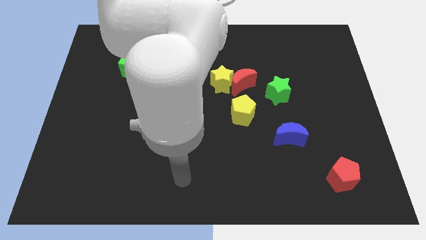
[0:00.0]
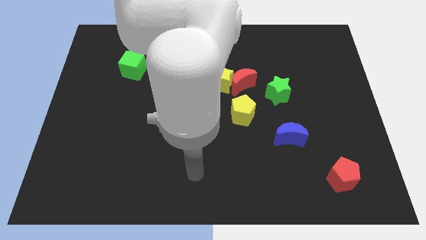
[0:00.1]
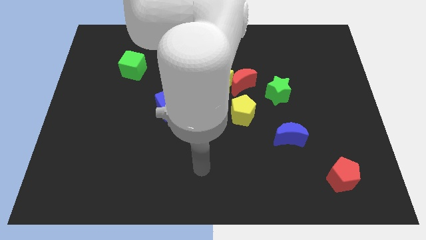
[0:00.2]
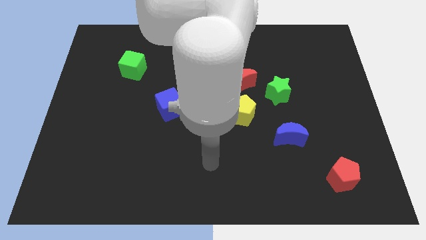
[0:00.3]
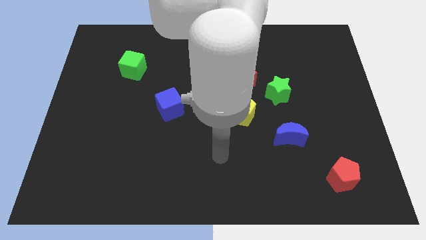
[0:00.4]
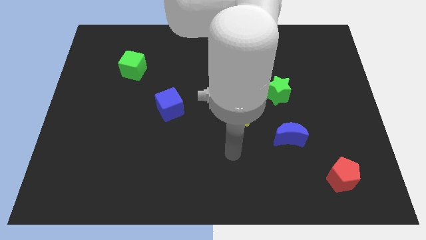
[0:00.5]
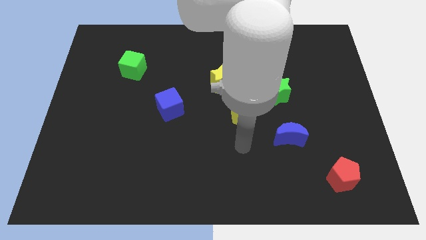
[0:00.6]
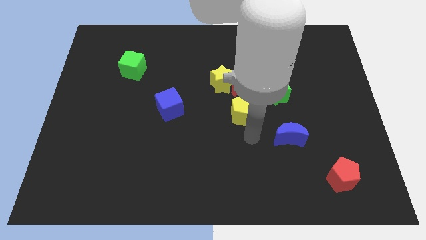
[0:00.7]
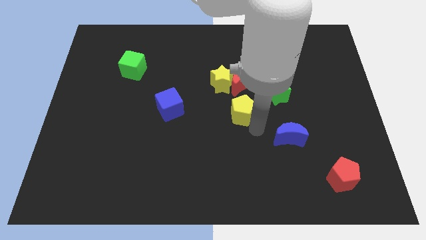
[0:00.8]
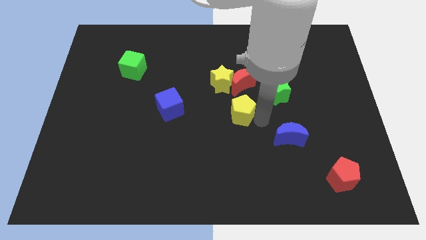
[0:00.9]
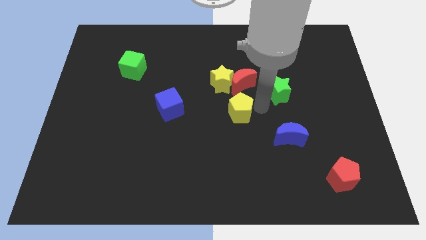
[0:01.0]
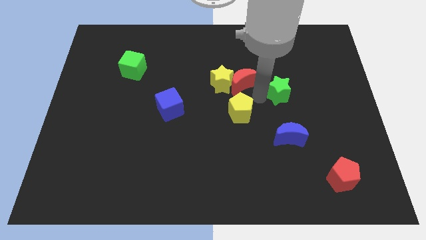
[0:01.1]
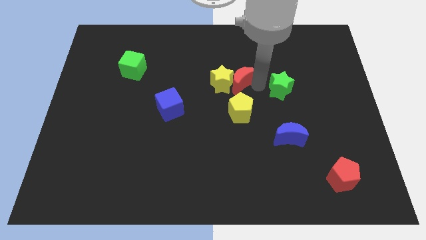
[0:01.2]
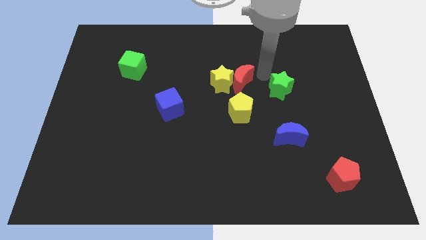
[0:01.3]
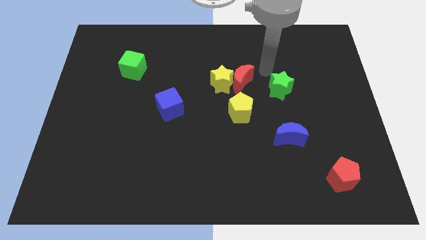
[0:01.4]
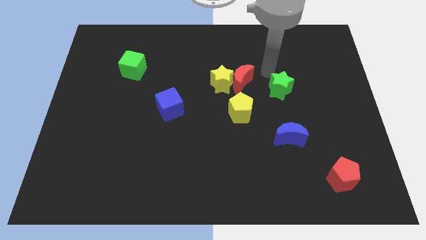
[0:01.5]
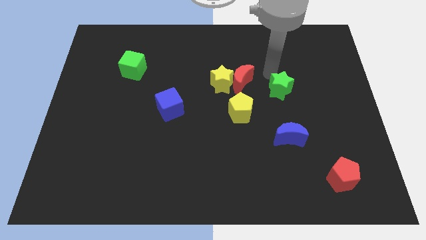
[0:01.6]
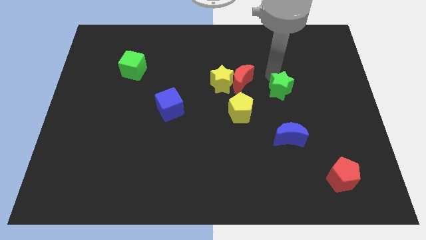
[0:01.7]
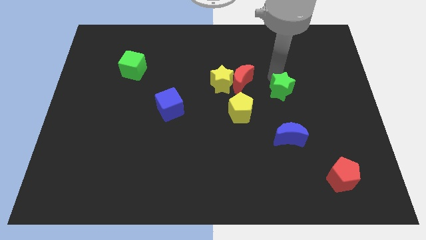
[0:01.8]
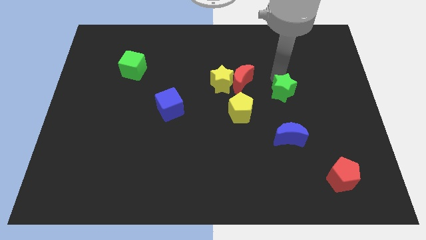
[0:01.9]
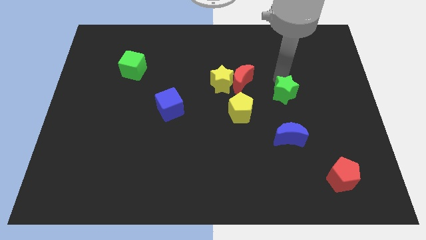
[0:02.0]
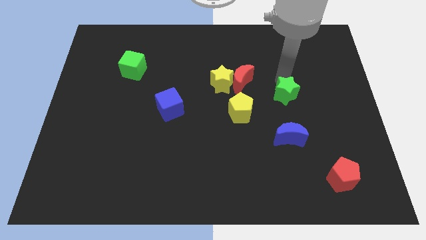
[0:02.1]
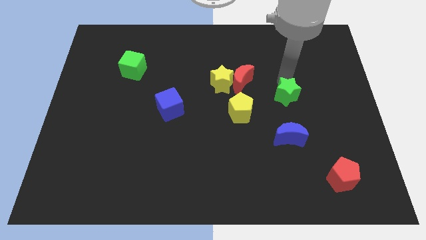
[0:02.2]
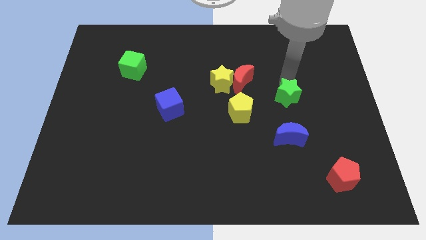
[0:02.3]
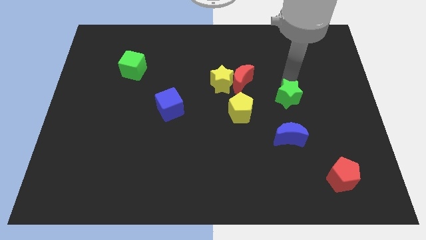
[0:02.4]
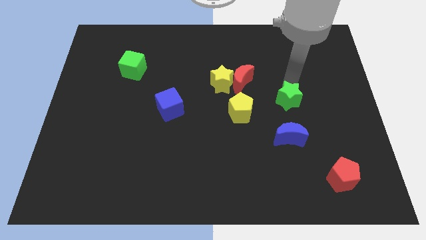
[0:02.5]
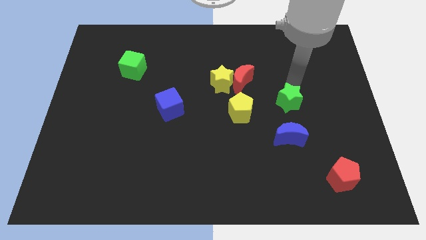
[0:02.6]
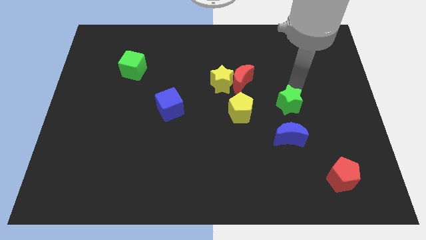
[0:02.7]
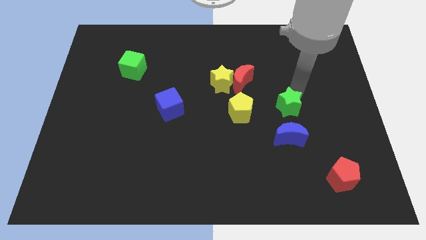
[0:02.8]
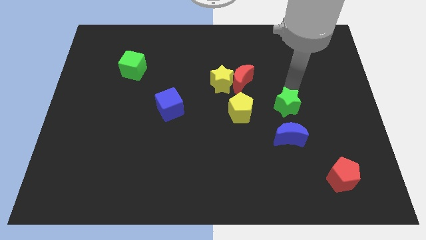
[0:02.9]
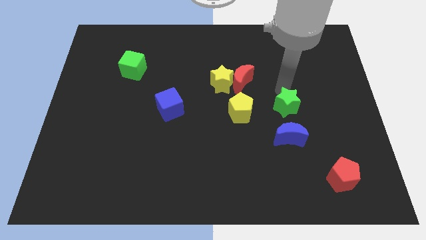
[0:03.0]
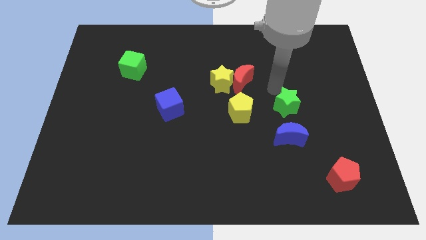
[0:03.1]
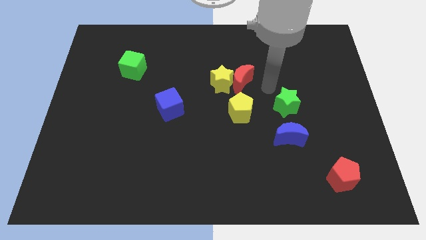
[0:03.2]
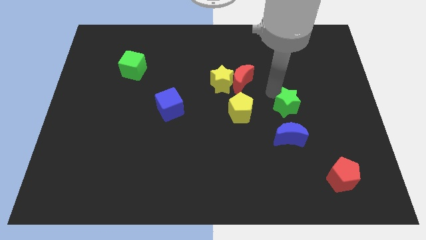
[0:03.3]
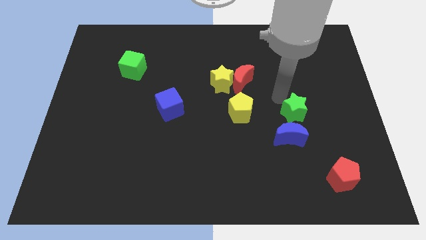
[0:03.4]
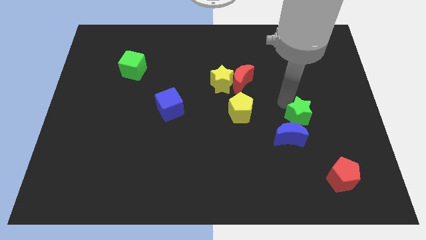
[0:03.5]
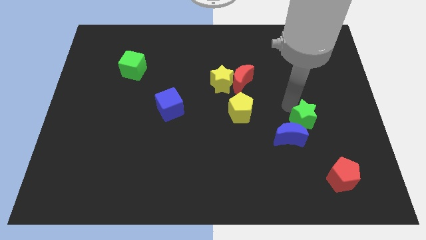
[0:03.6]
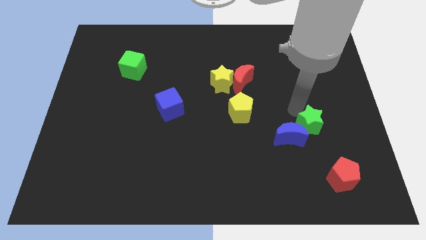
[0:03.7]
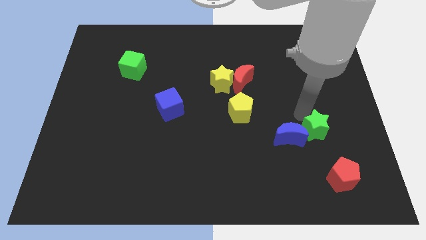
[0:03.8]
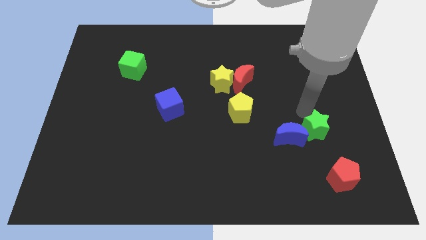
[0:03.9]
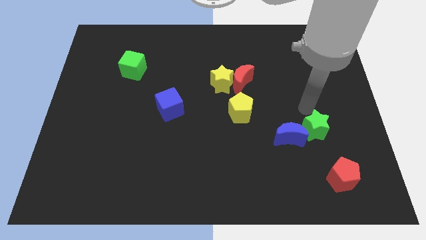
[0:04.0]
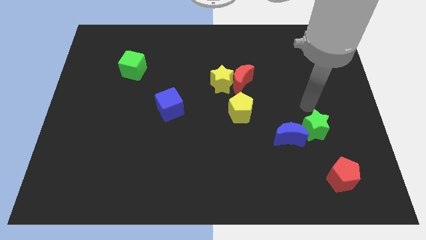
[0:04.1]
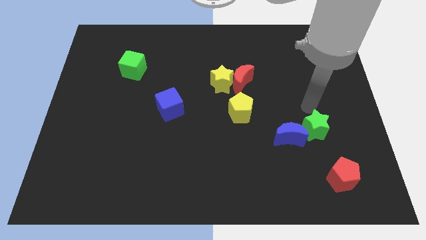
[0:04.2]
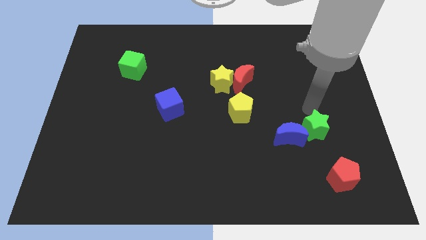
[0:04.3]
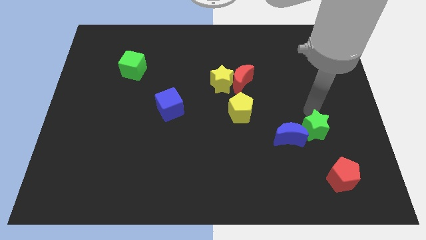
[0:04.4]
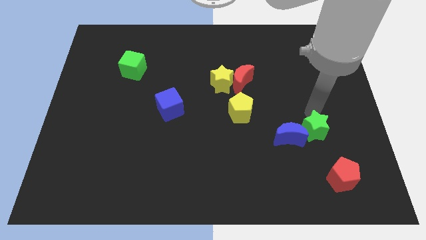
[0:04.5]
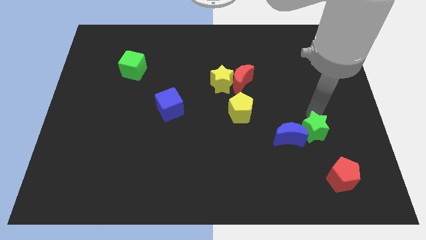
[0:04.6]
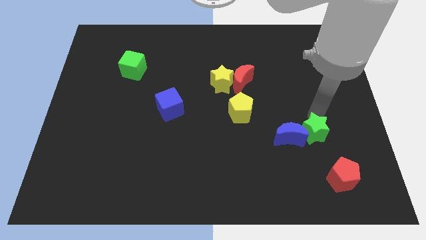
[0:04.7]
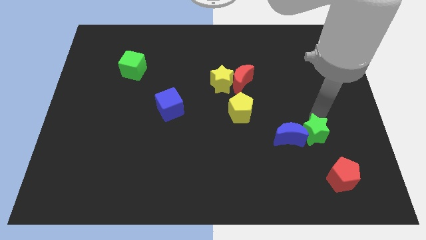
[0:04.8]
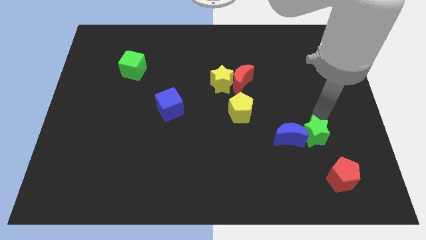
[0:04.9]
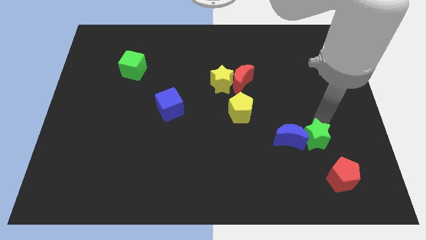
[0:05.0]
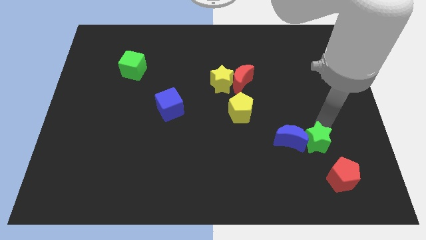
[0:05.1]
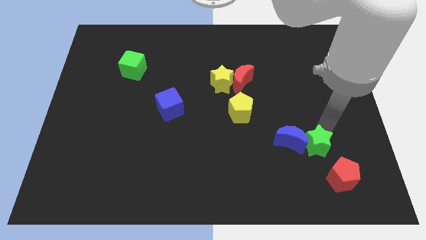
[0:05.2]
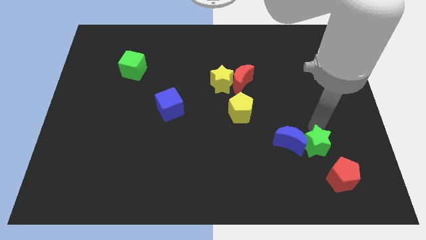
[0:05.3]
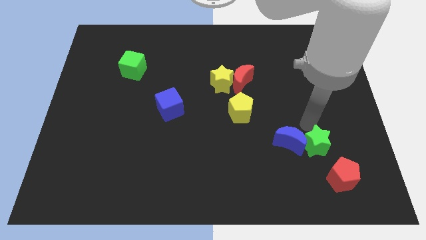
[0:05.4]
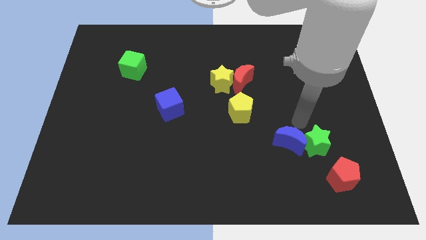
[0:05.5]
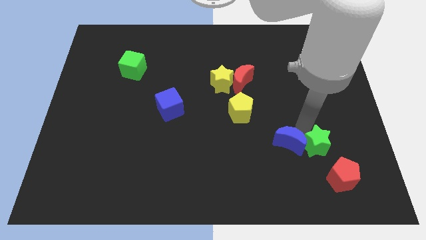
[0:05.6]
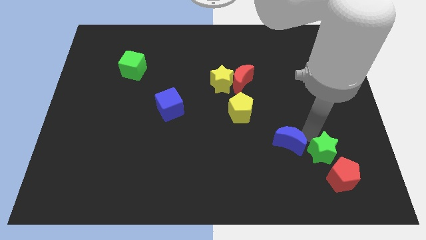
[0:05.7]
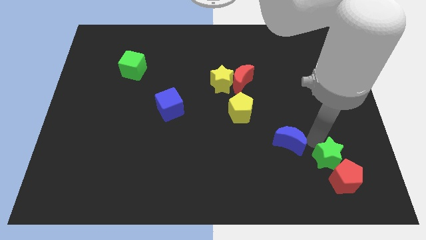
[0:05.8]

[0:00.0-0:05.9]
put the green star next to the red pentagon

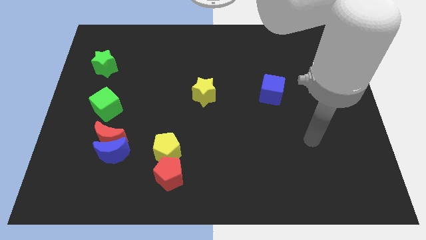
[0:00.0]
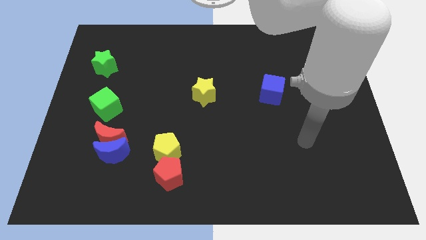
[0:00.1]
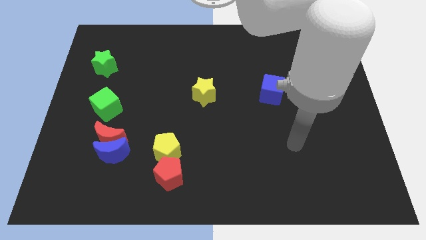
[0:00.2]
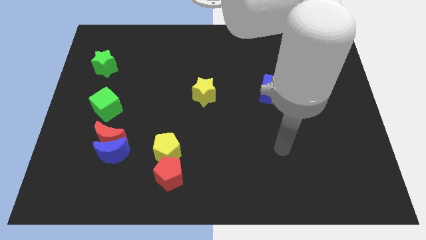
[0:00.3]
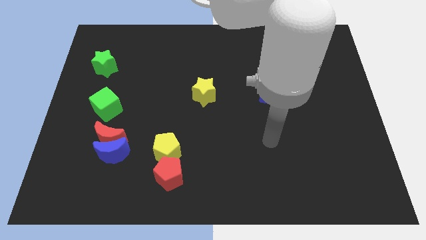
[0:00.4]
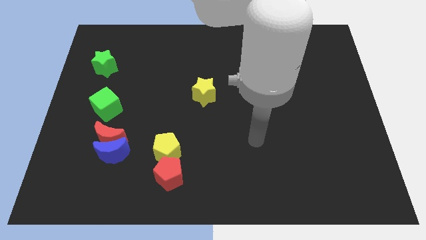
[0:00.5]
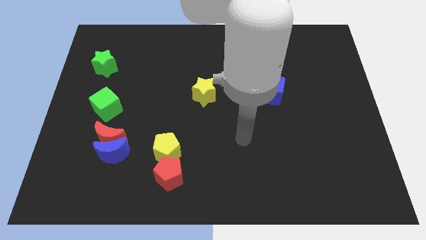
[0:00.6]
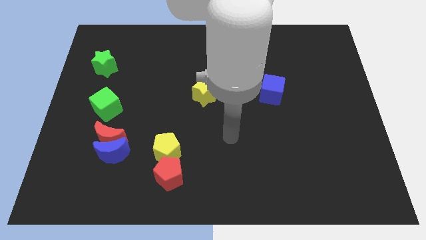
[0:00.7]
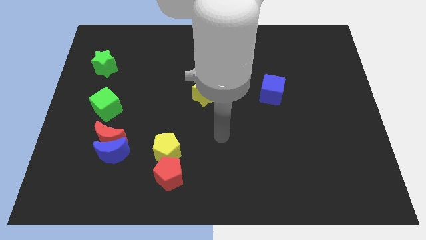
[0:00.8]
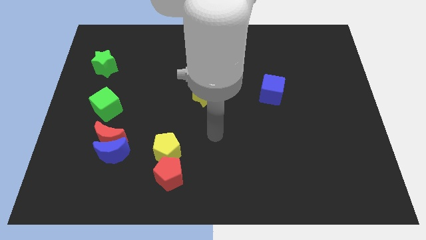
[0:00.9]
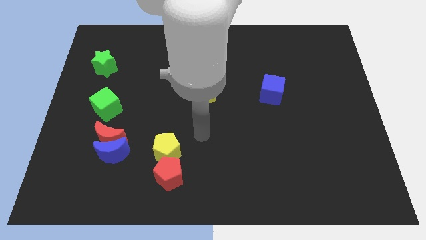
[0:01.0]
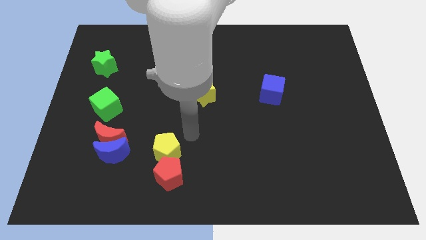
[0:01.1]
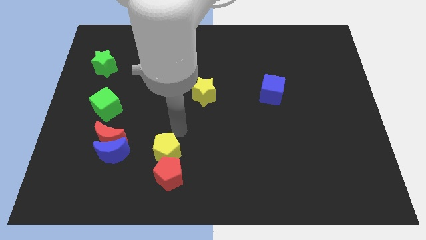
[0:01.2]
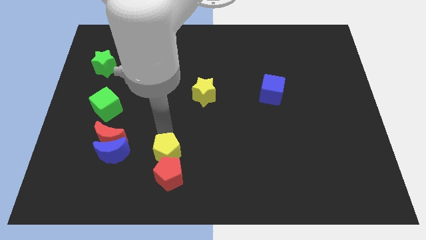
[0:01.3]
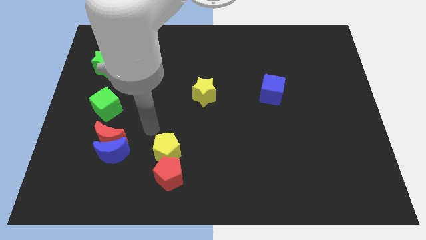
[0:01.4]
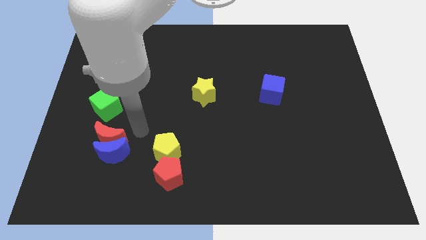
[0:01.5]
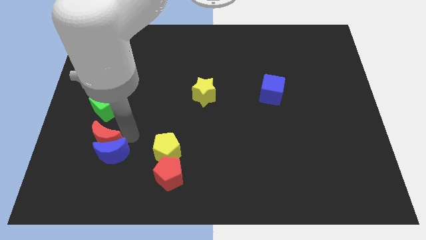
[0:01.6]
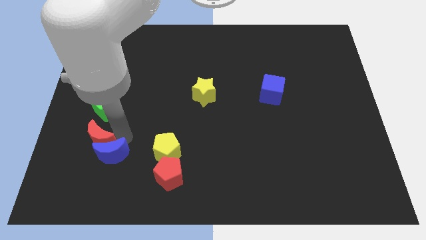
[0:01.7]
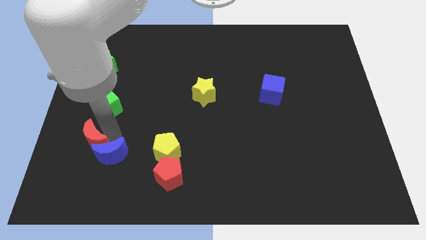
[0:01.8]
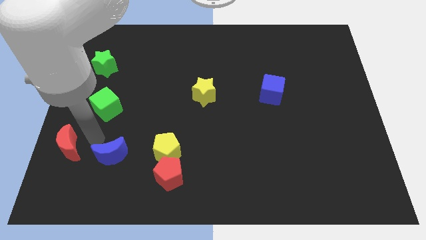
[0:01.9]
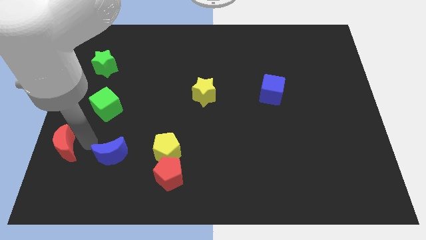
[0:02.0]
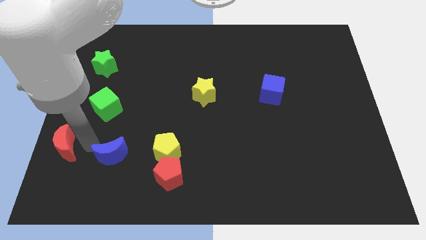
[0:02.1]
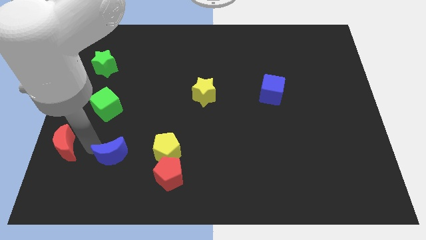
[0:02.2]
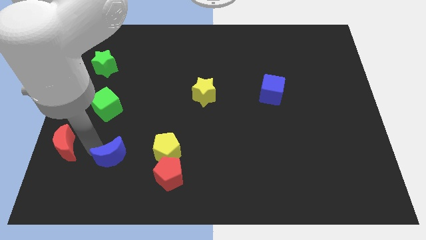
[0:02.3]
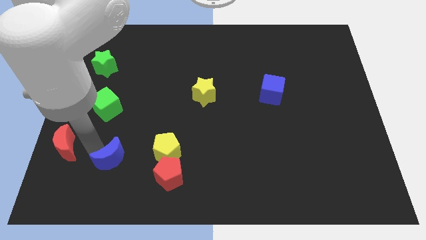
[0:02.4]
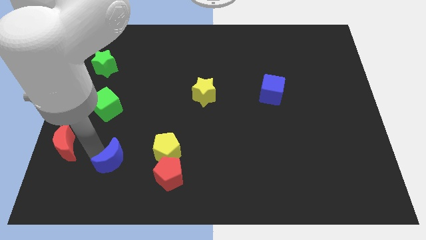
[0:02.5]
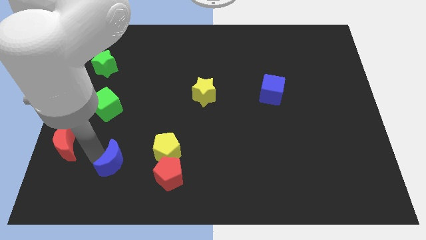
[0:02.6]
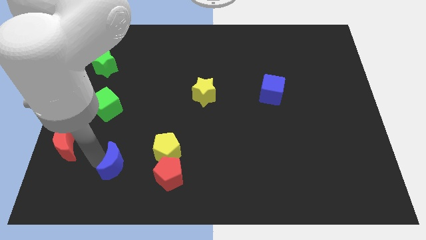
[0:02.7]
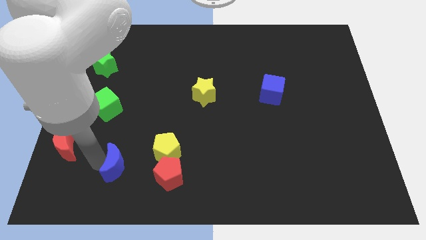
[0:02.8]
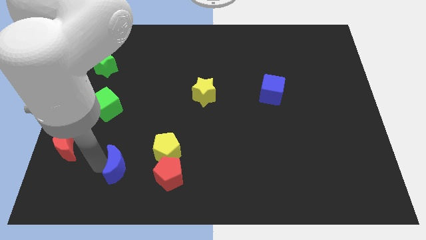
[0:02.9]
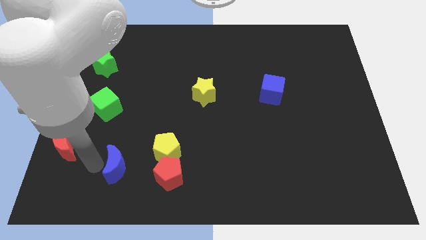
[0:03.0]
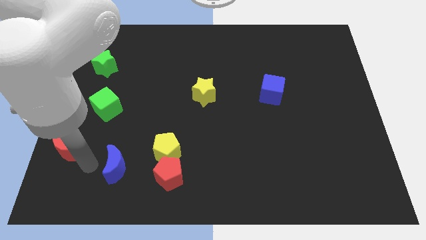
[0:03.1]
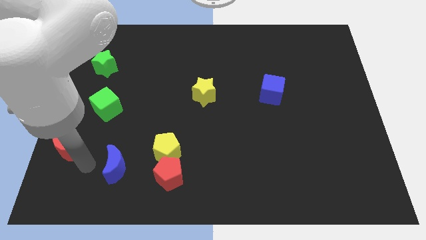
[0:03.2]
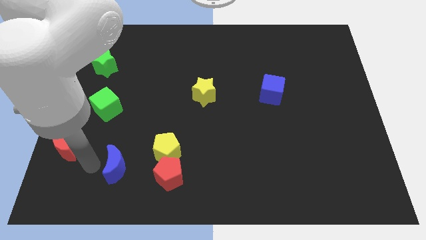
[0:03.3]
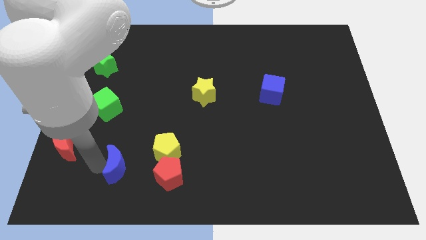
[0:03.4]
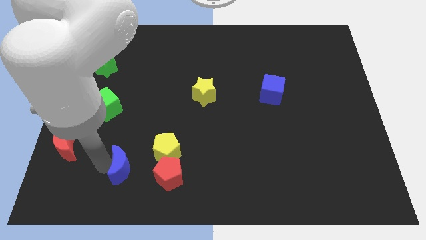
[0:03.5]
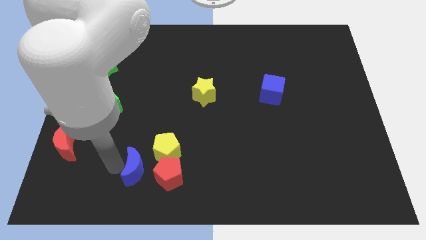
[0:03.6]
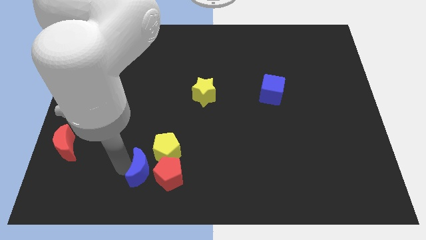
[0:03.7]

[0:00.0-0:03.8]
move the blue moon towards the red pentagon
